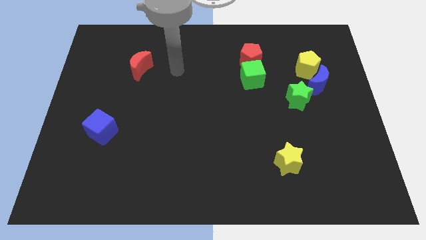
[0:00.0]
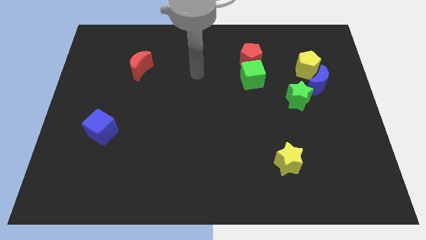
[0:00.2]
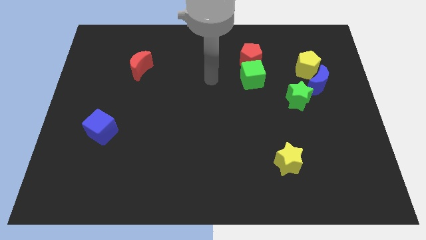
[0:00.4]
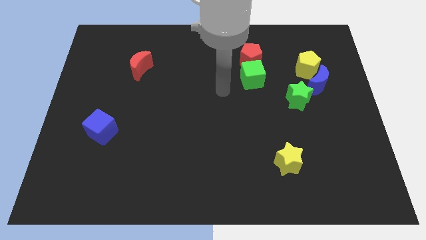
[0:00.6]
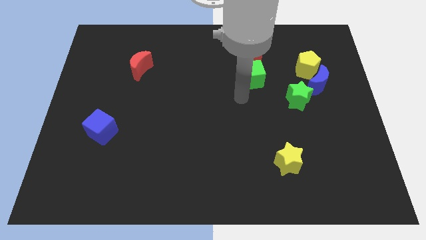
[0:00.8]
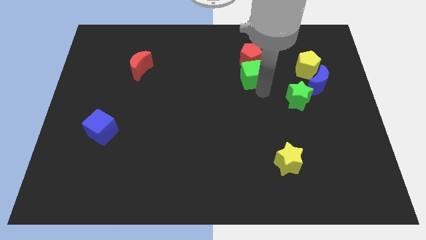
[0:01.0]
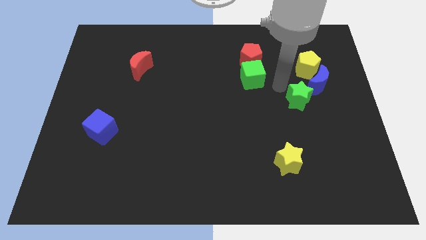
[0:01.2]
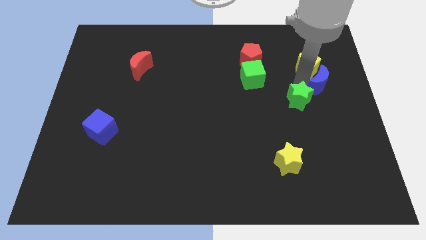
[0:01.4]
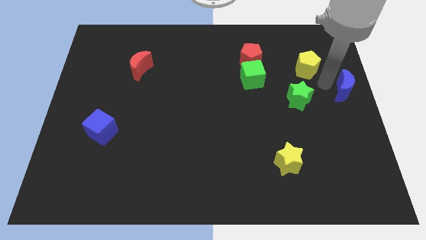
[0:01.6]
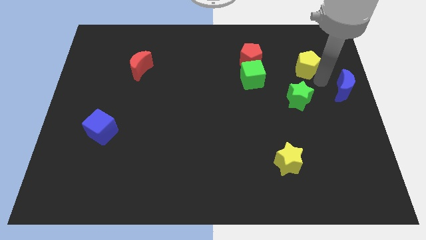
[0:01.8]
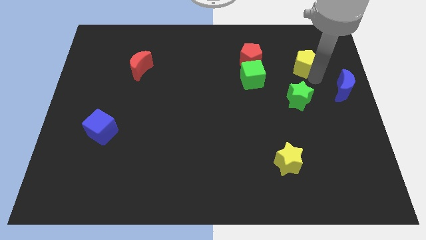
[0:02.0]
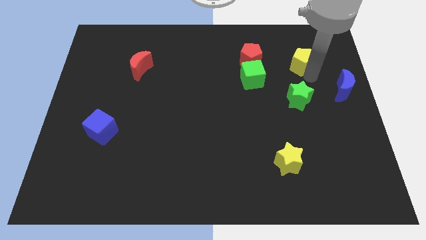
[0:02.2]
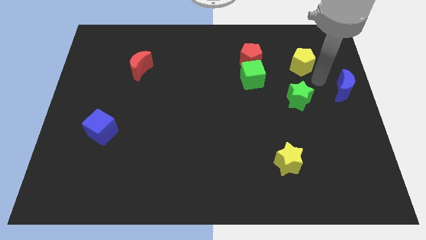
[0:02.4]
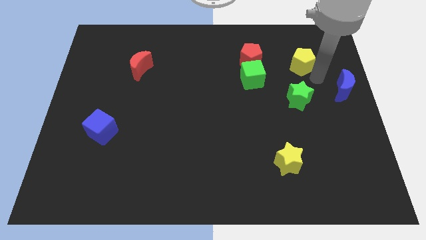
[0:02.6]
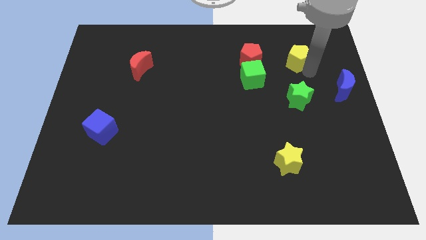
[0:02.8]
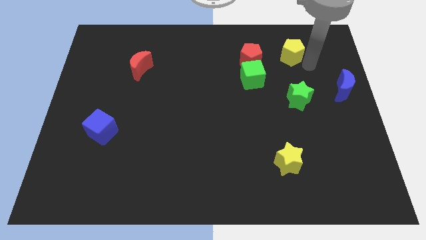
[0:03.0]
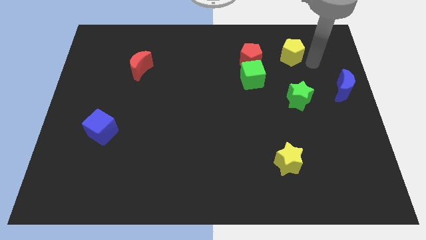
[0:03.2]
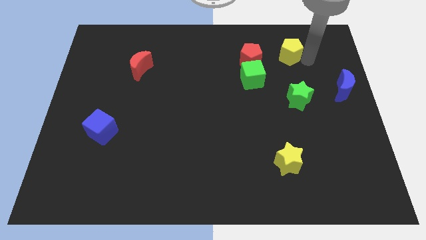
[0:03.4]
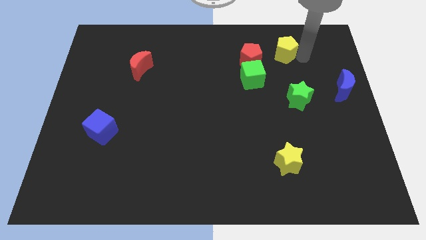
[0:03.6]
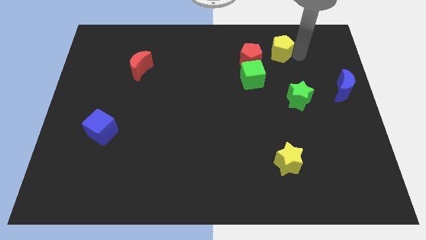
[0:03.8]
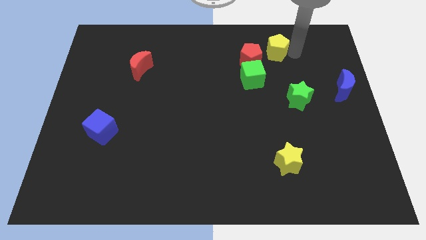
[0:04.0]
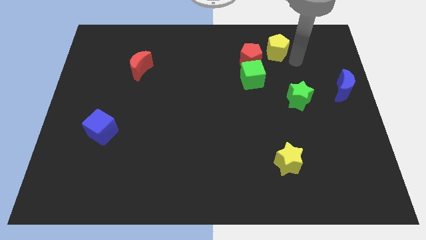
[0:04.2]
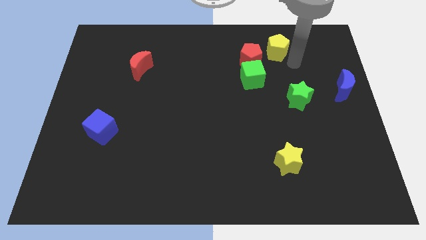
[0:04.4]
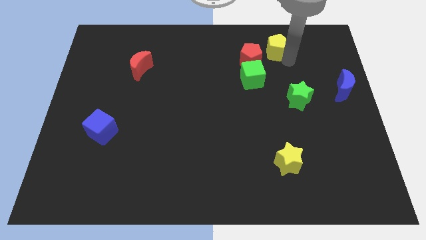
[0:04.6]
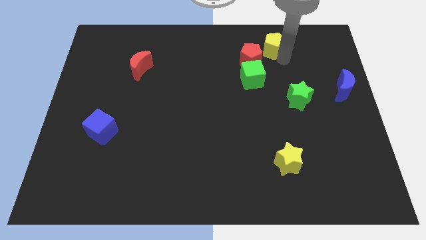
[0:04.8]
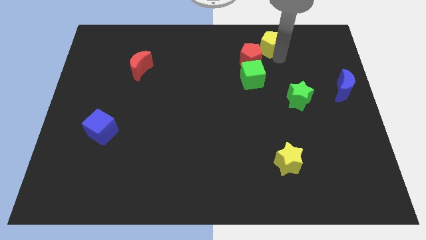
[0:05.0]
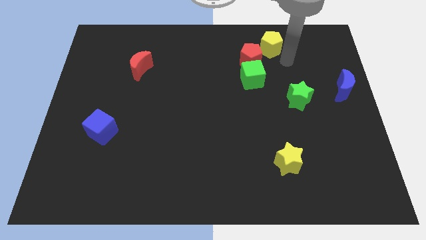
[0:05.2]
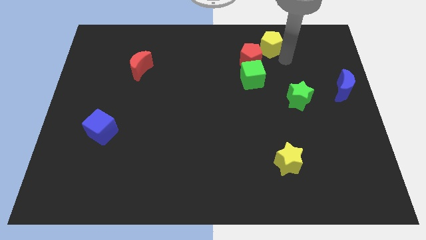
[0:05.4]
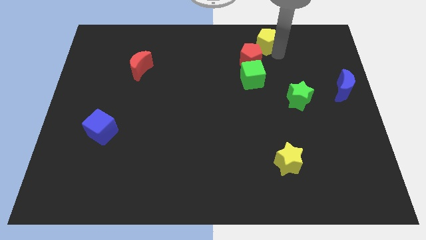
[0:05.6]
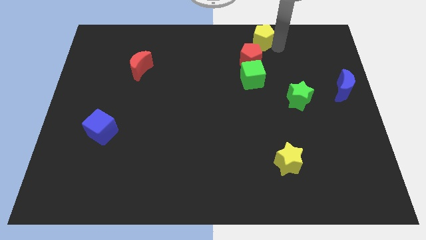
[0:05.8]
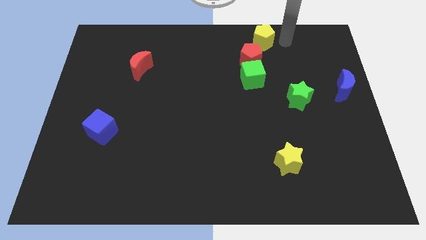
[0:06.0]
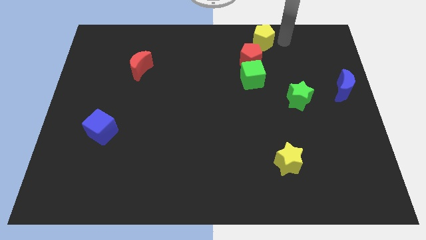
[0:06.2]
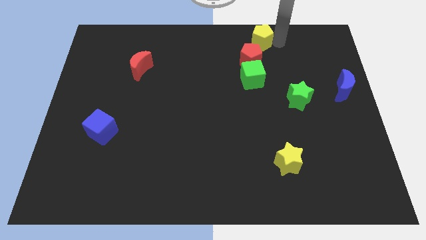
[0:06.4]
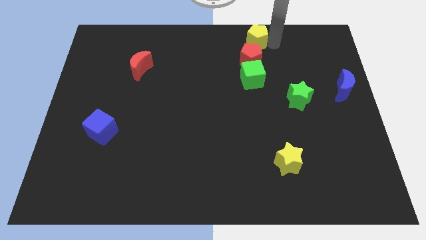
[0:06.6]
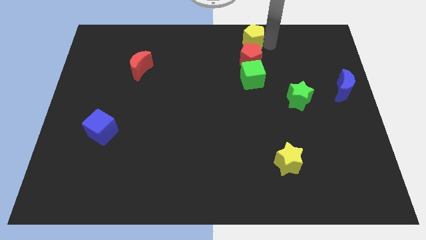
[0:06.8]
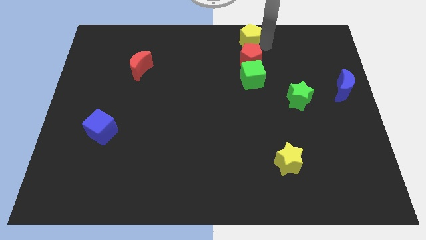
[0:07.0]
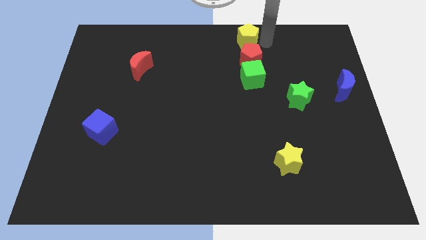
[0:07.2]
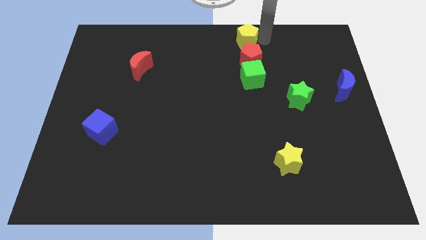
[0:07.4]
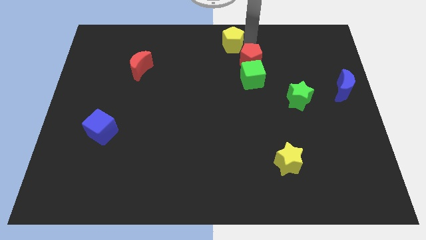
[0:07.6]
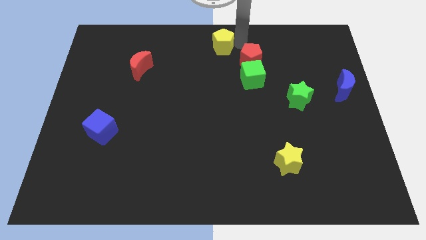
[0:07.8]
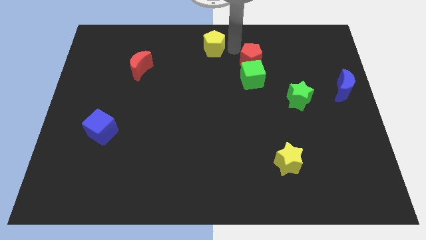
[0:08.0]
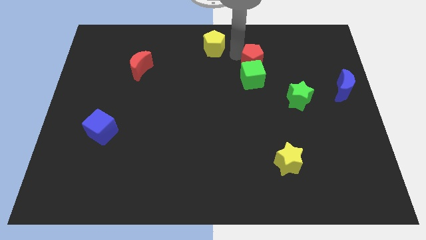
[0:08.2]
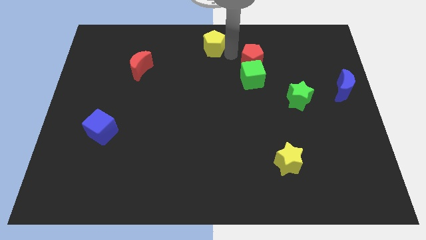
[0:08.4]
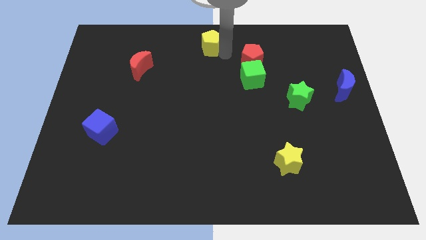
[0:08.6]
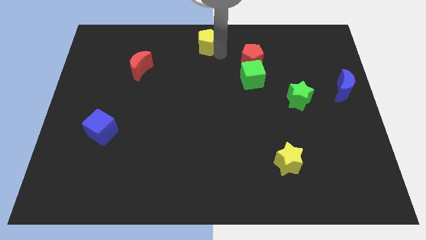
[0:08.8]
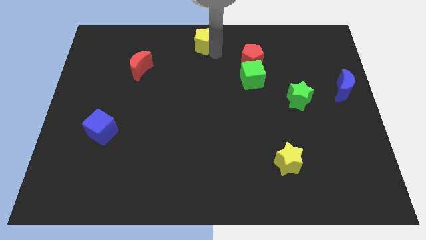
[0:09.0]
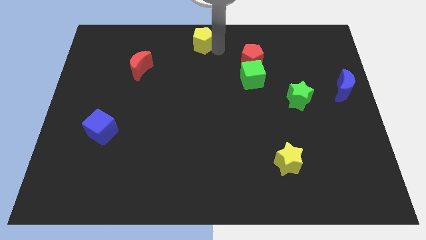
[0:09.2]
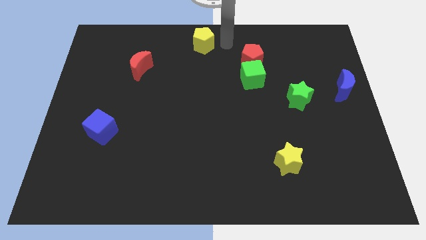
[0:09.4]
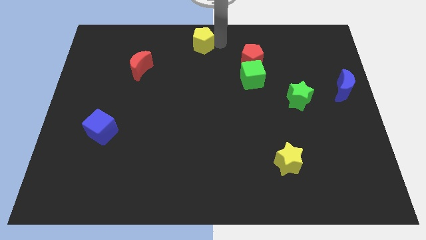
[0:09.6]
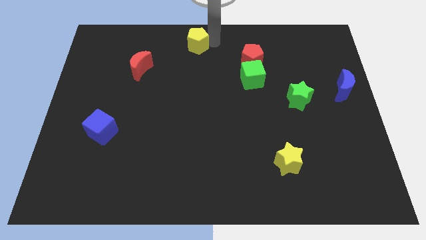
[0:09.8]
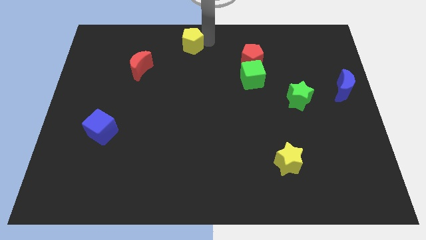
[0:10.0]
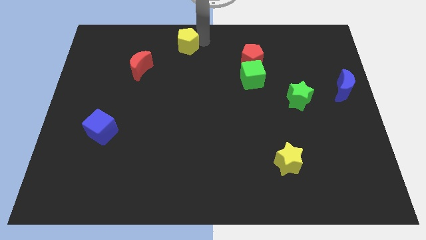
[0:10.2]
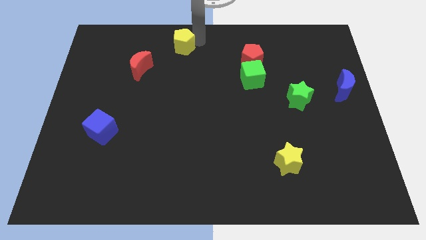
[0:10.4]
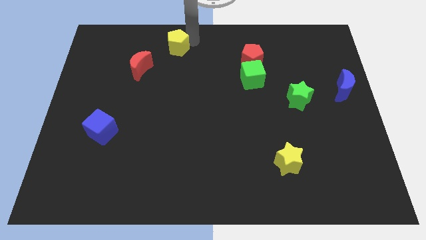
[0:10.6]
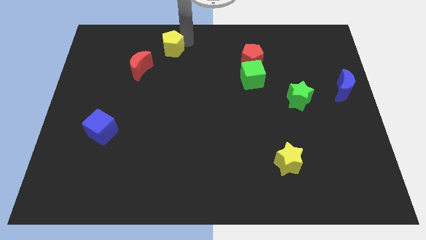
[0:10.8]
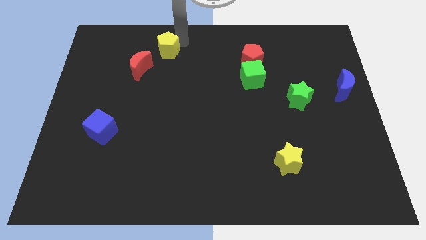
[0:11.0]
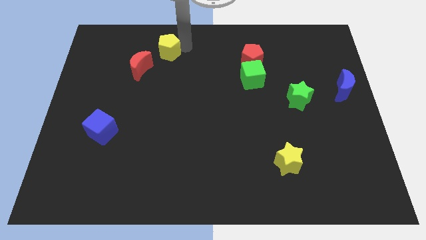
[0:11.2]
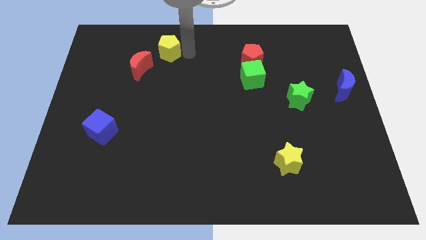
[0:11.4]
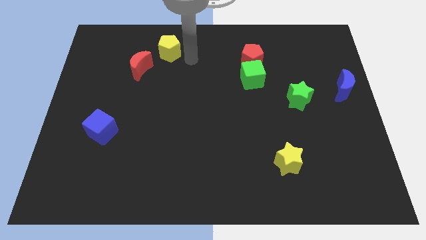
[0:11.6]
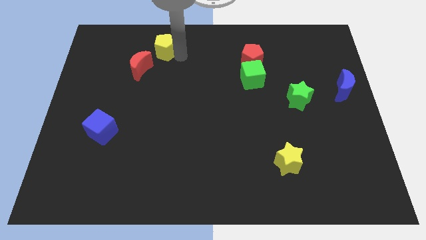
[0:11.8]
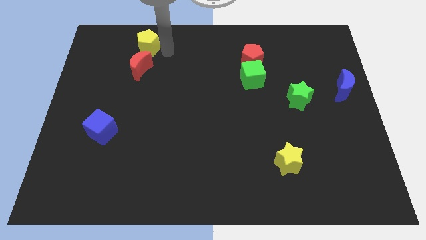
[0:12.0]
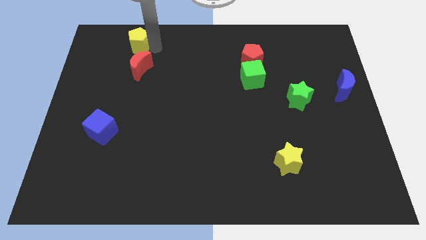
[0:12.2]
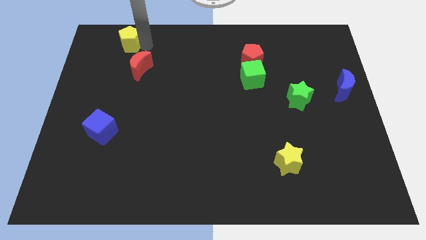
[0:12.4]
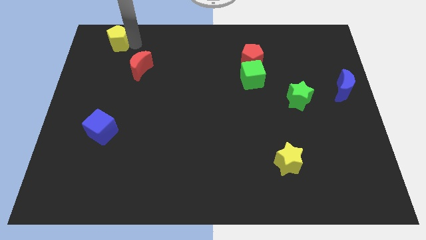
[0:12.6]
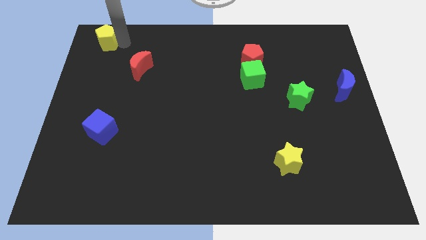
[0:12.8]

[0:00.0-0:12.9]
slide the yellow pentagon to the top left of the board

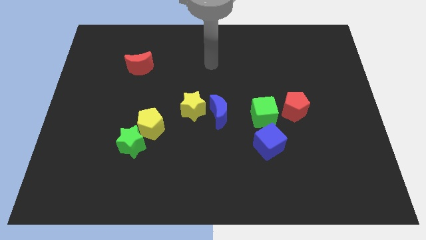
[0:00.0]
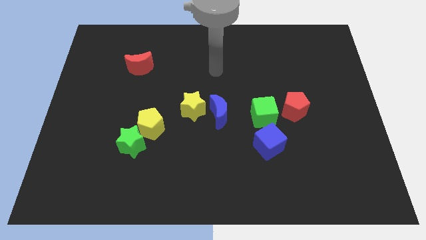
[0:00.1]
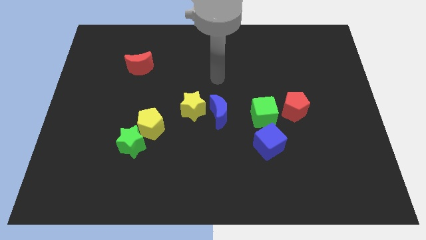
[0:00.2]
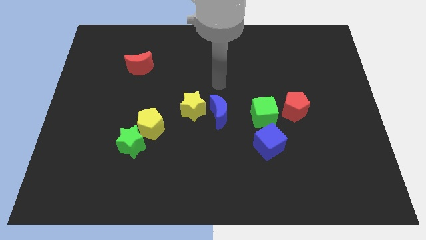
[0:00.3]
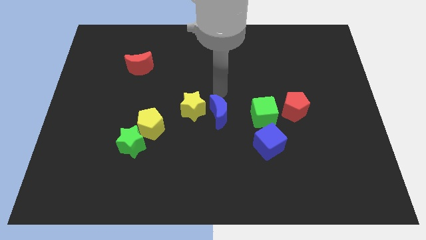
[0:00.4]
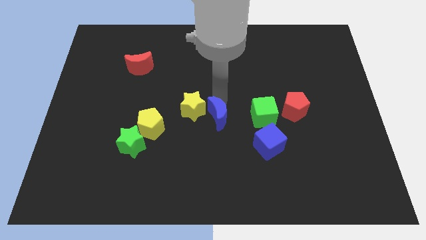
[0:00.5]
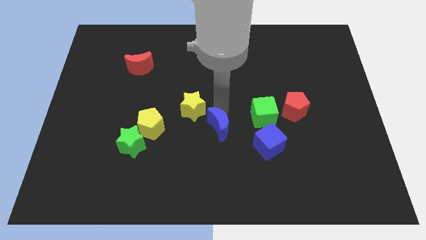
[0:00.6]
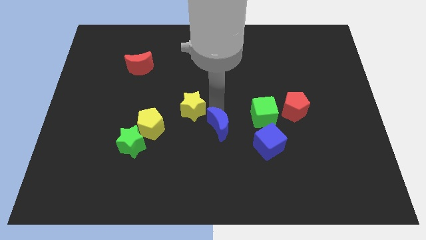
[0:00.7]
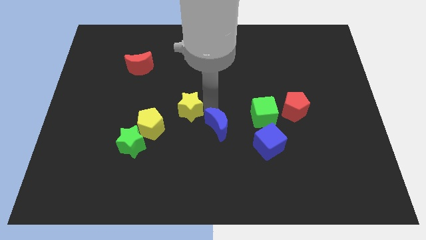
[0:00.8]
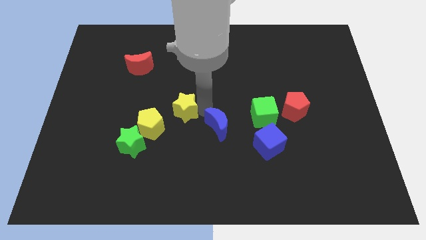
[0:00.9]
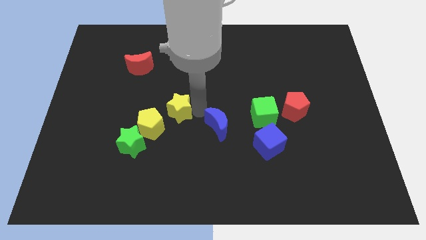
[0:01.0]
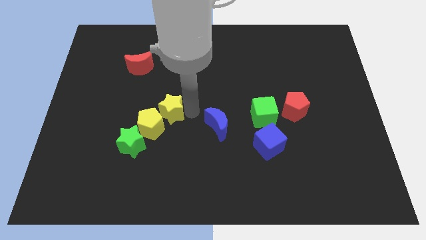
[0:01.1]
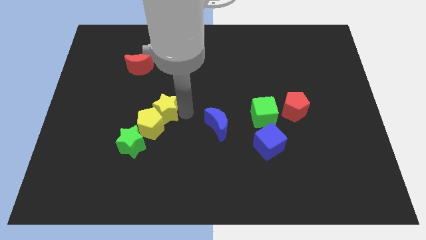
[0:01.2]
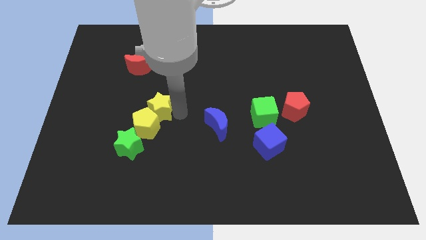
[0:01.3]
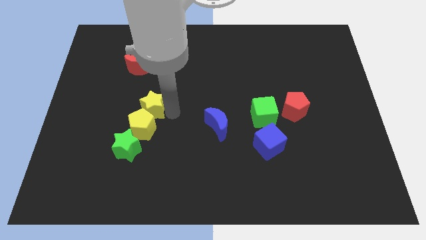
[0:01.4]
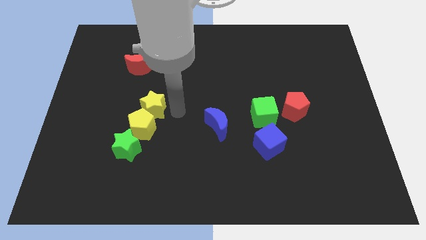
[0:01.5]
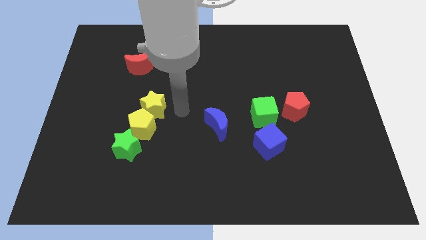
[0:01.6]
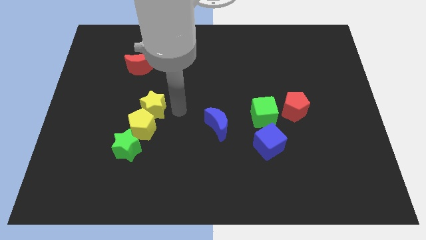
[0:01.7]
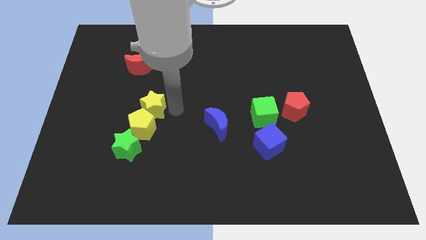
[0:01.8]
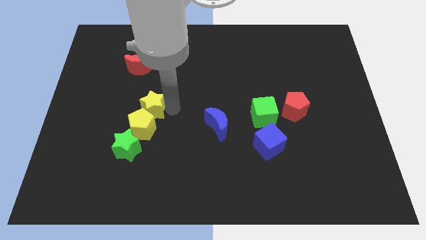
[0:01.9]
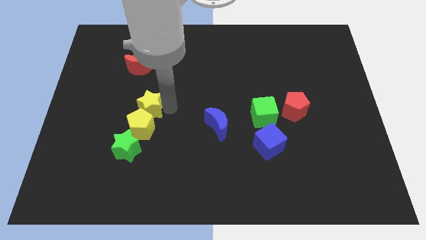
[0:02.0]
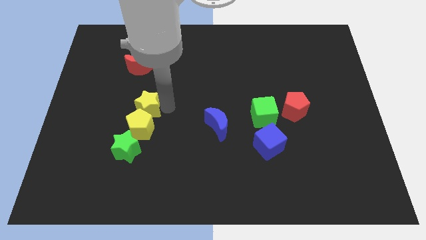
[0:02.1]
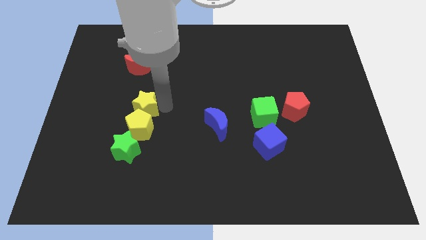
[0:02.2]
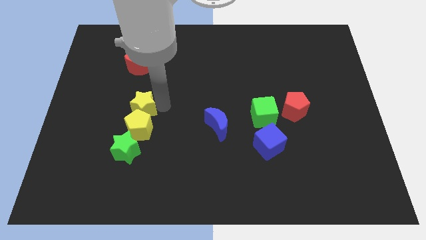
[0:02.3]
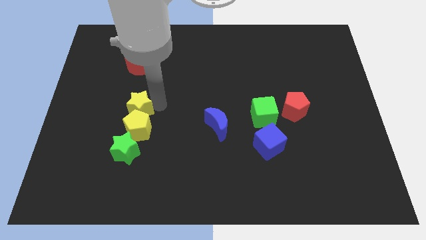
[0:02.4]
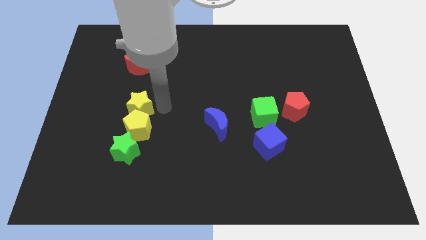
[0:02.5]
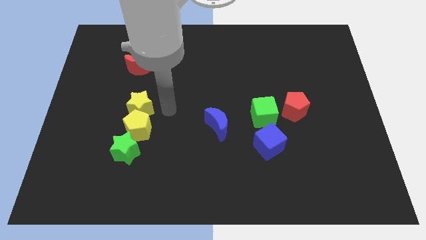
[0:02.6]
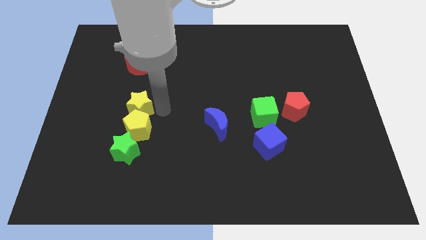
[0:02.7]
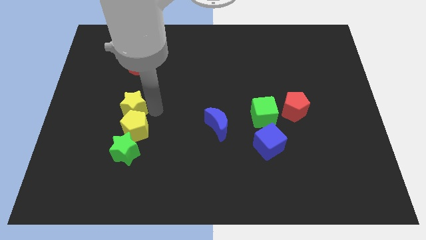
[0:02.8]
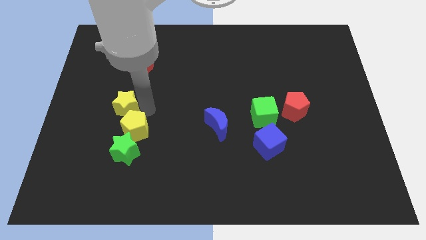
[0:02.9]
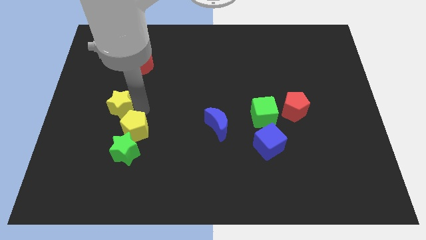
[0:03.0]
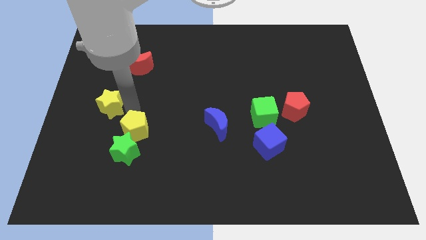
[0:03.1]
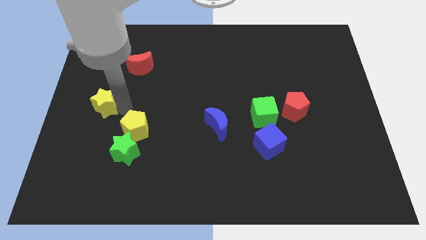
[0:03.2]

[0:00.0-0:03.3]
move the yellow star to the left side of the board
